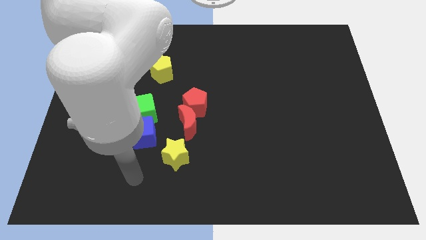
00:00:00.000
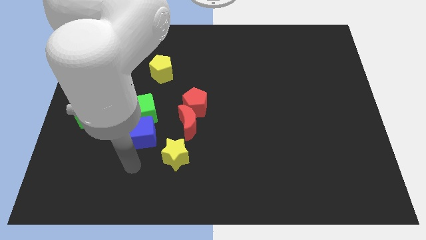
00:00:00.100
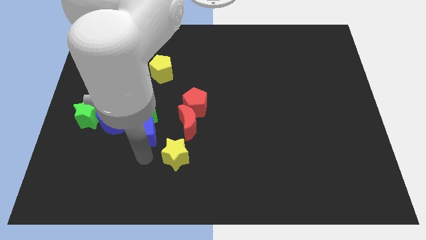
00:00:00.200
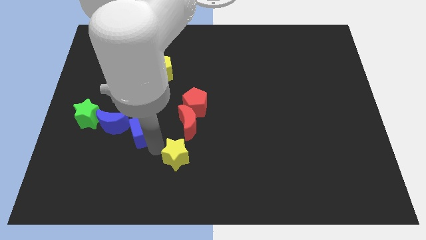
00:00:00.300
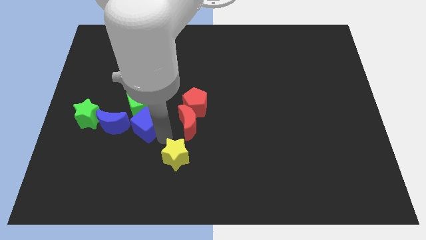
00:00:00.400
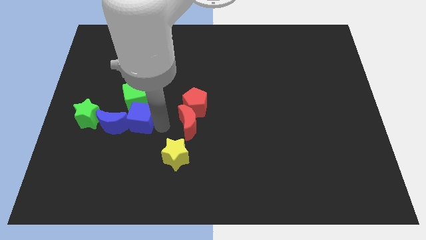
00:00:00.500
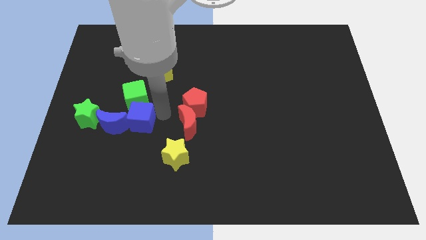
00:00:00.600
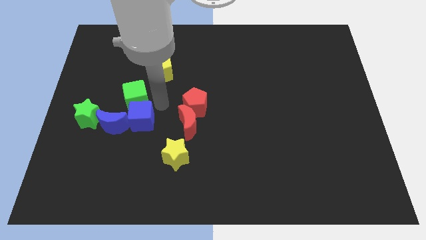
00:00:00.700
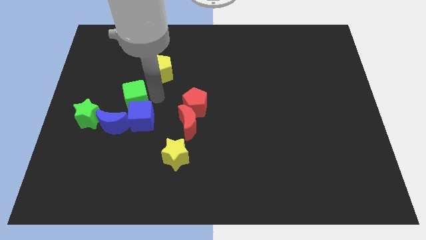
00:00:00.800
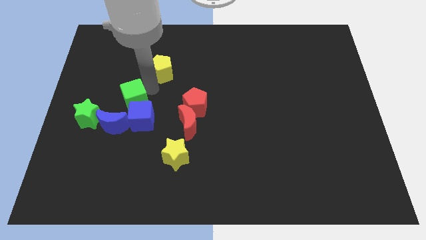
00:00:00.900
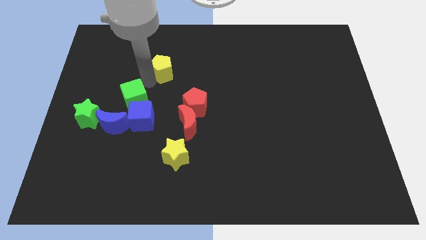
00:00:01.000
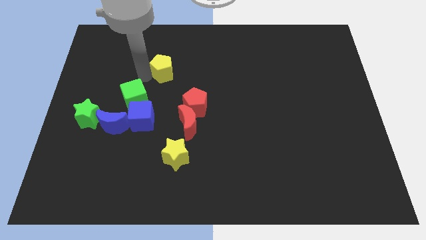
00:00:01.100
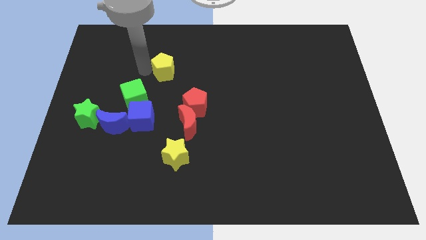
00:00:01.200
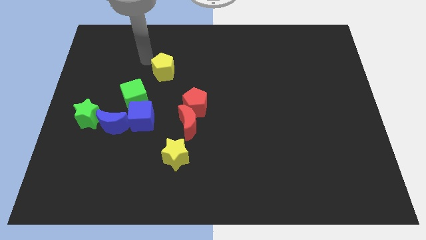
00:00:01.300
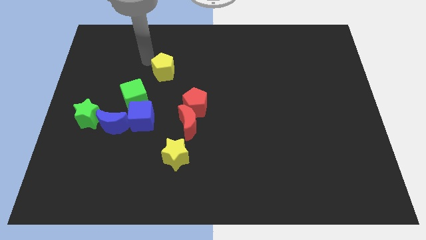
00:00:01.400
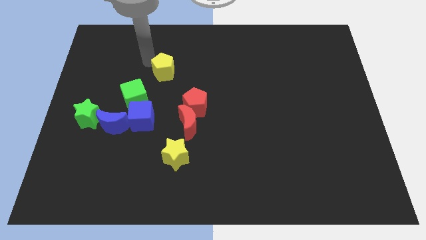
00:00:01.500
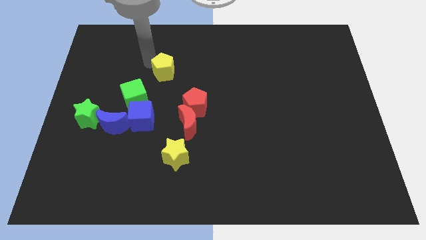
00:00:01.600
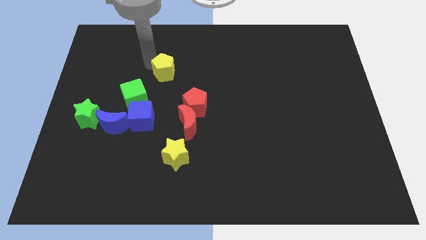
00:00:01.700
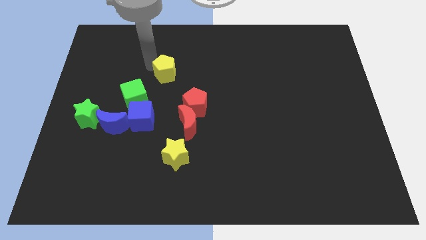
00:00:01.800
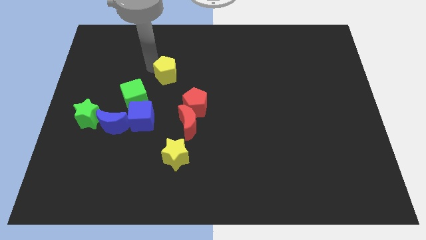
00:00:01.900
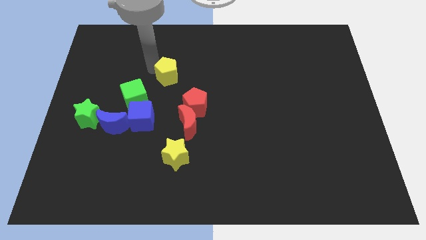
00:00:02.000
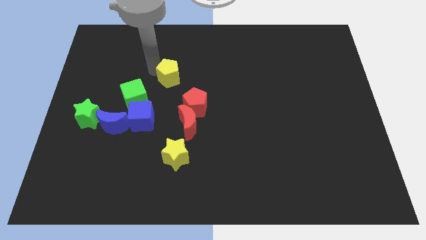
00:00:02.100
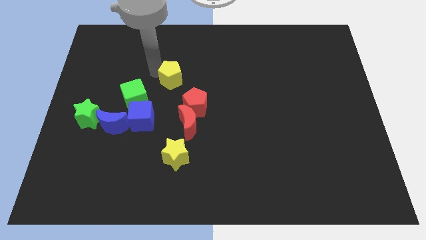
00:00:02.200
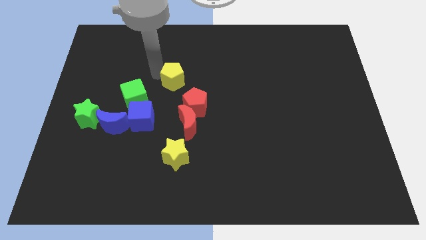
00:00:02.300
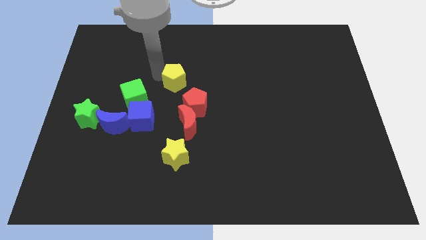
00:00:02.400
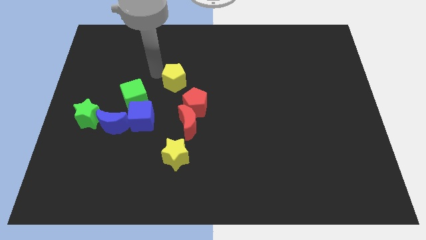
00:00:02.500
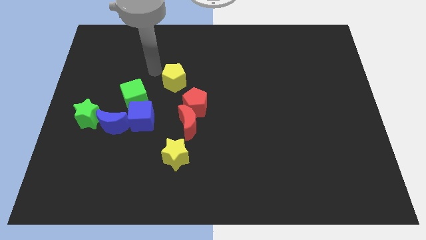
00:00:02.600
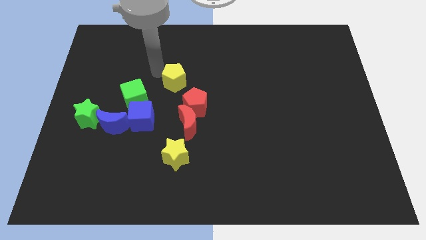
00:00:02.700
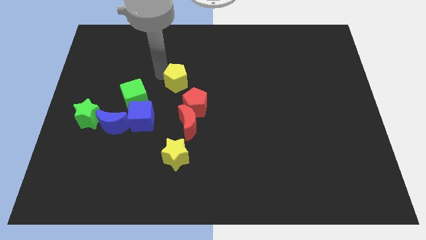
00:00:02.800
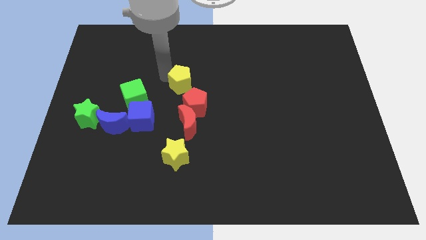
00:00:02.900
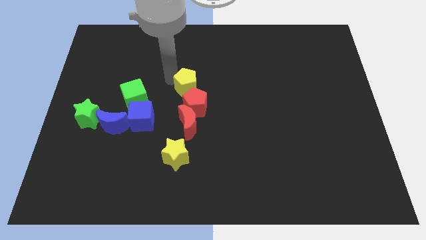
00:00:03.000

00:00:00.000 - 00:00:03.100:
slightly slide the yellow pentagon downwards and then to the right

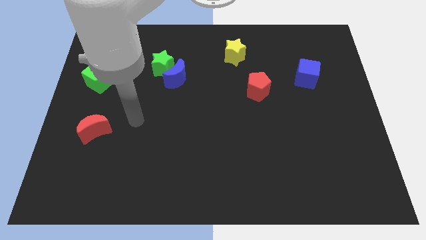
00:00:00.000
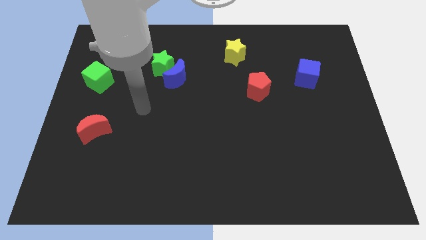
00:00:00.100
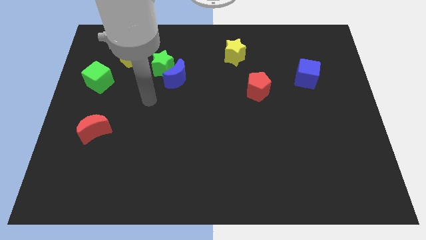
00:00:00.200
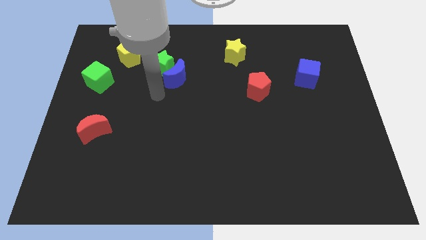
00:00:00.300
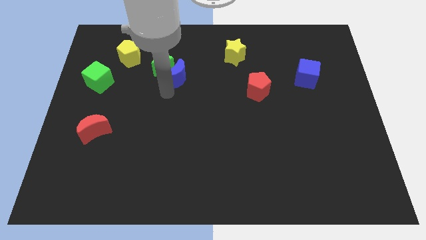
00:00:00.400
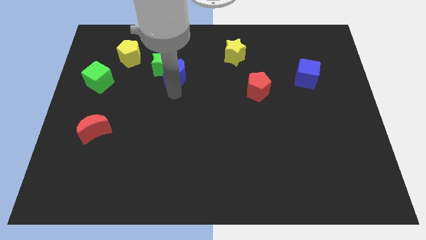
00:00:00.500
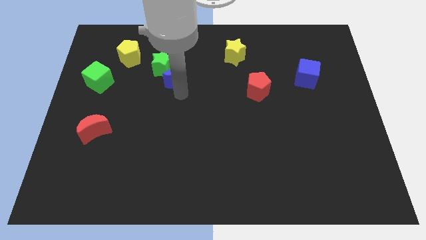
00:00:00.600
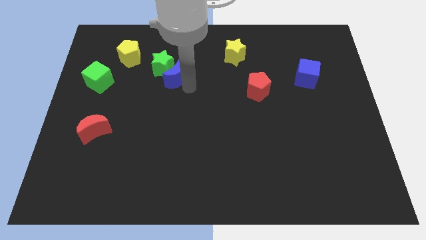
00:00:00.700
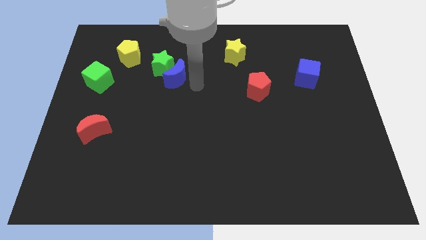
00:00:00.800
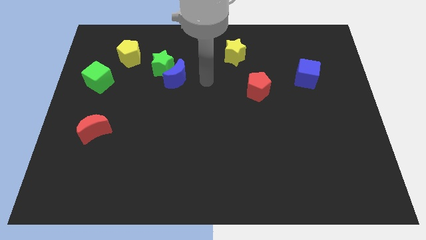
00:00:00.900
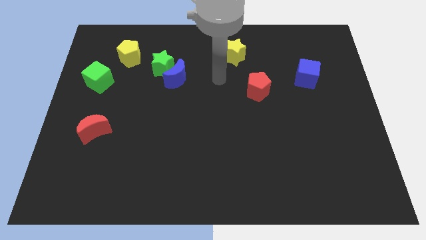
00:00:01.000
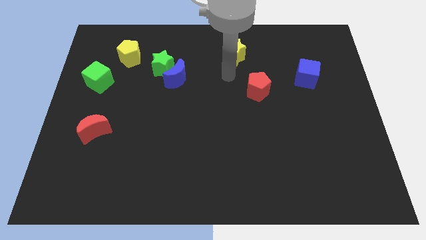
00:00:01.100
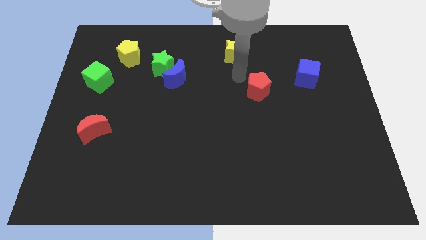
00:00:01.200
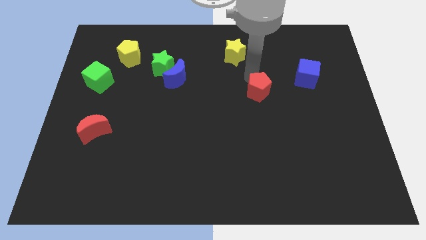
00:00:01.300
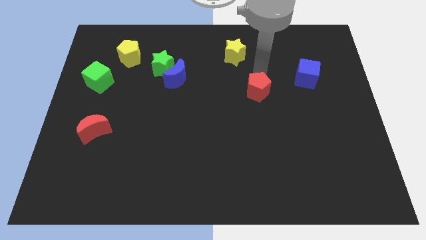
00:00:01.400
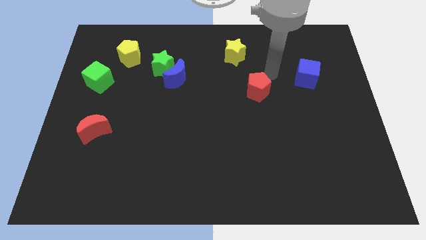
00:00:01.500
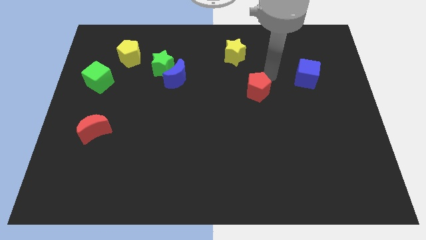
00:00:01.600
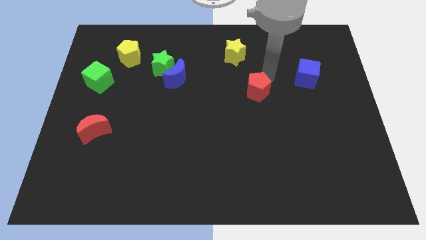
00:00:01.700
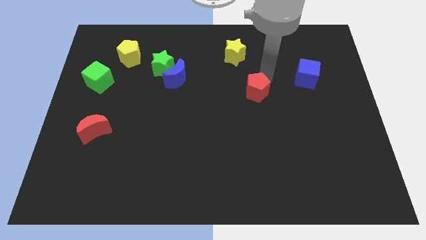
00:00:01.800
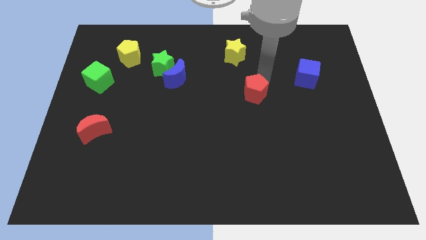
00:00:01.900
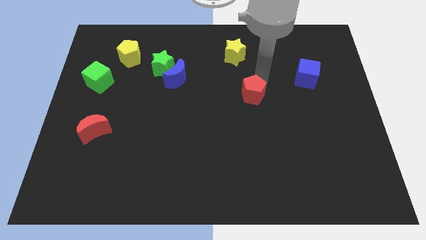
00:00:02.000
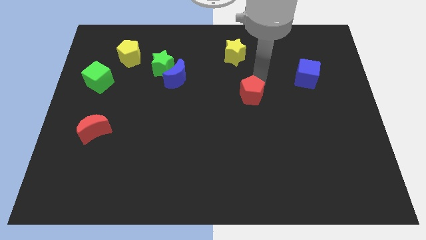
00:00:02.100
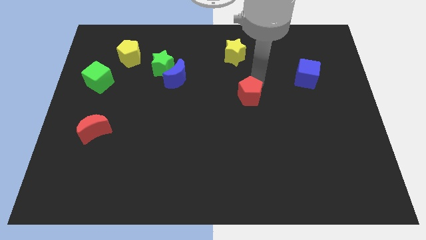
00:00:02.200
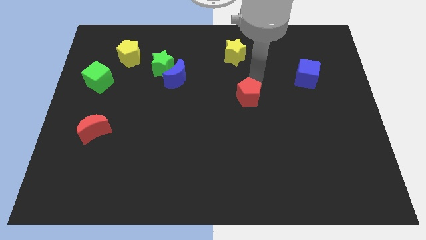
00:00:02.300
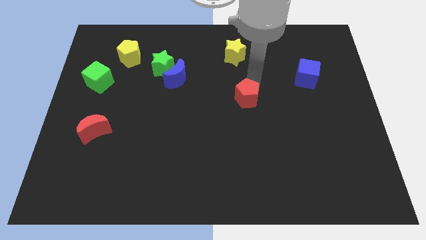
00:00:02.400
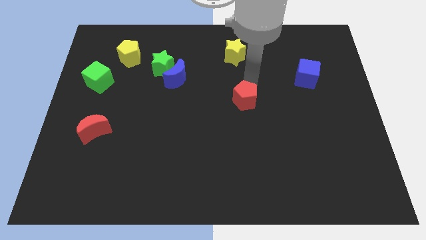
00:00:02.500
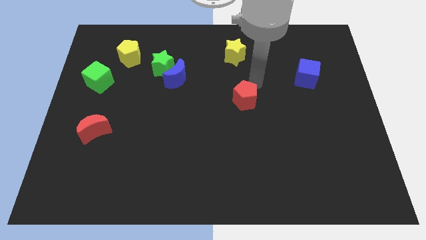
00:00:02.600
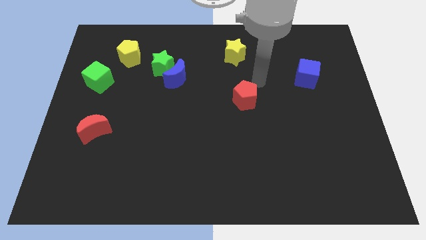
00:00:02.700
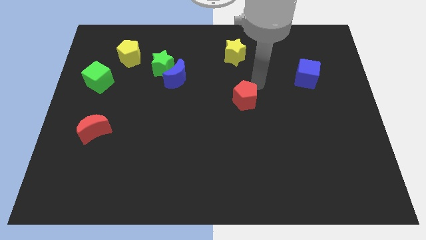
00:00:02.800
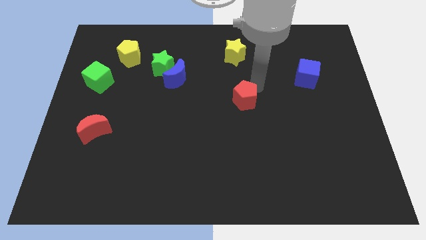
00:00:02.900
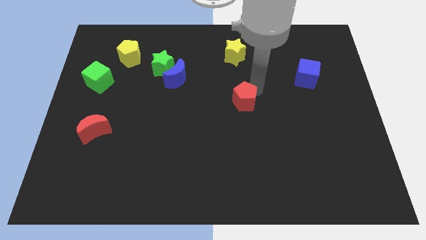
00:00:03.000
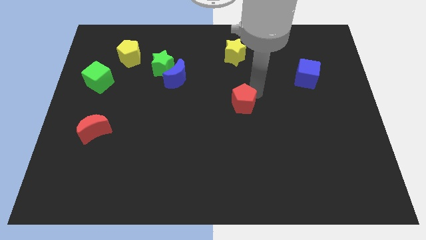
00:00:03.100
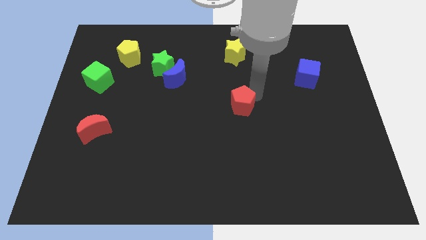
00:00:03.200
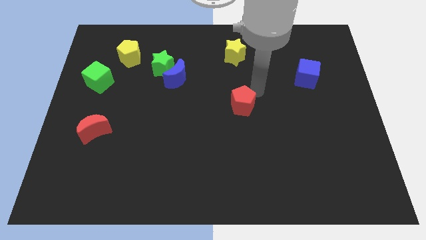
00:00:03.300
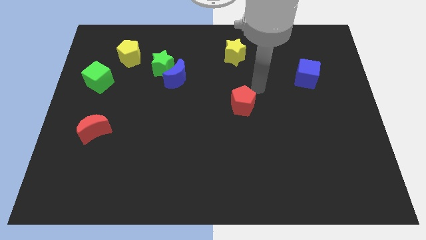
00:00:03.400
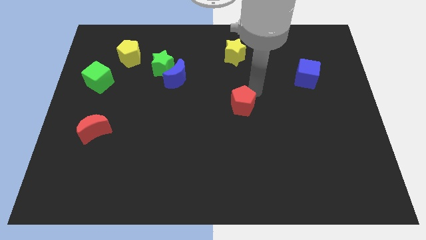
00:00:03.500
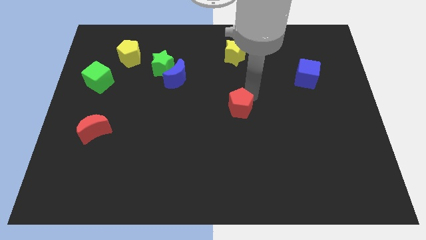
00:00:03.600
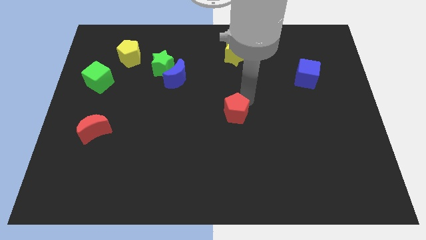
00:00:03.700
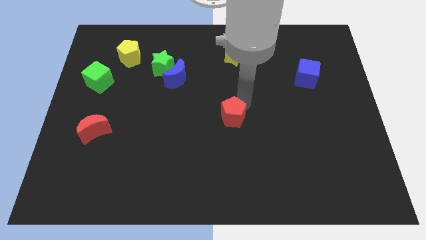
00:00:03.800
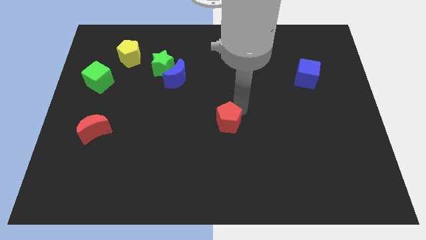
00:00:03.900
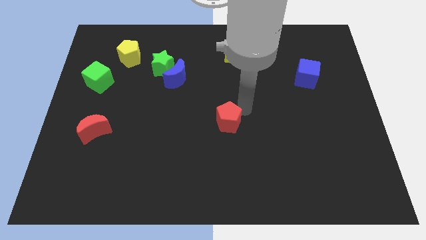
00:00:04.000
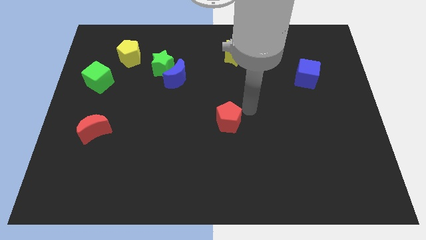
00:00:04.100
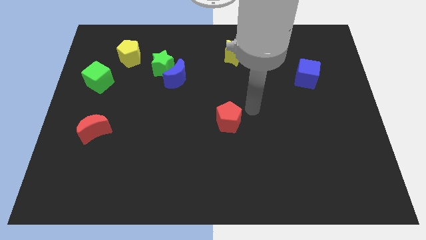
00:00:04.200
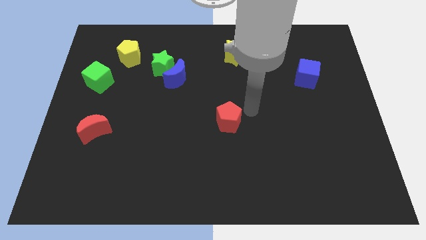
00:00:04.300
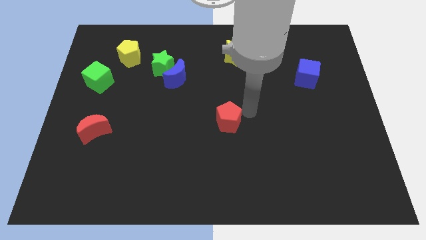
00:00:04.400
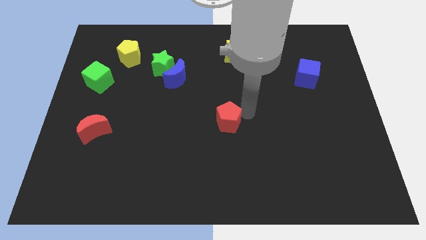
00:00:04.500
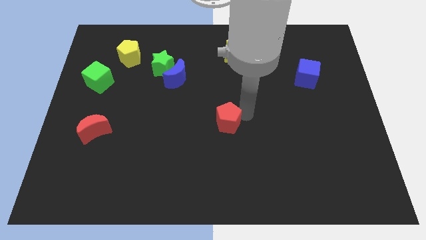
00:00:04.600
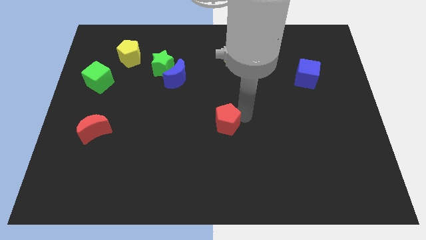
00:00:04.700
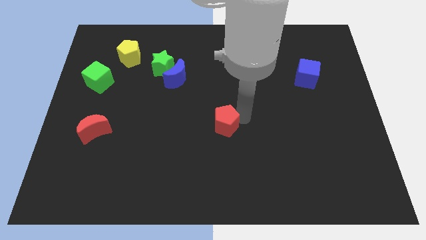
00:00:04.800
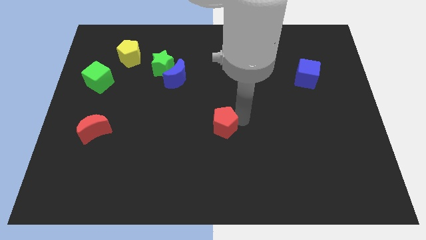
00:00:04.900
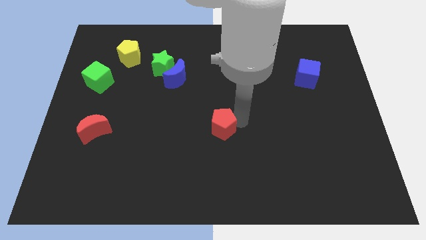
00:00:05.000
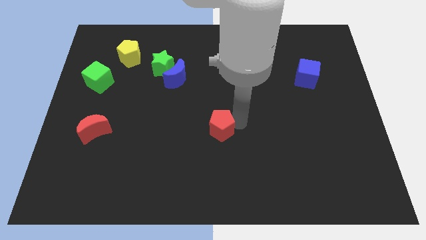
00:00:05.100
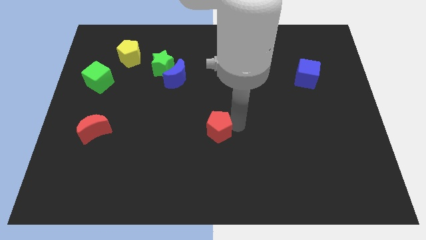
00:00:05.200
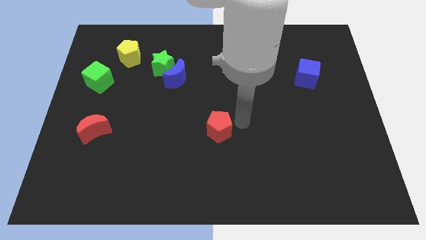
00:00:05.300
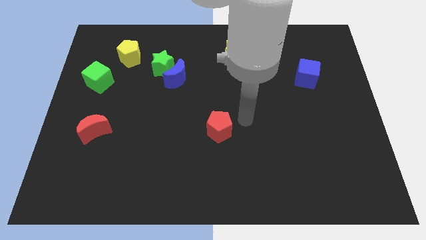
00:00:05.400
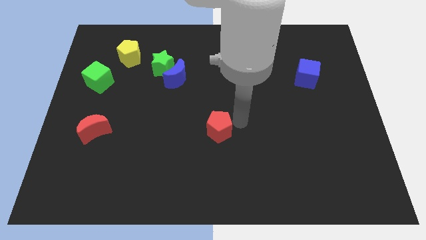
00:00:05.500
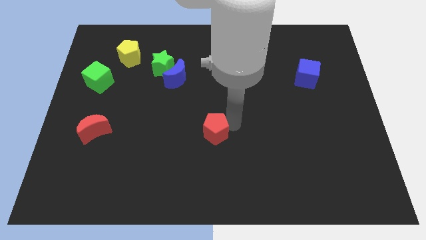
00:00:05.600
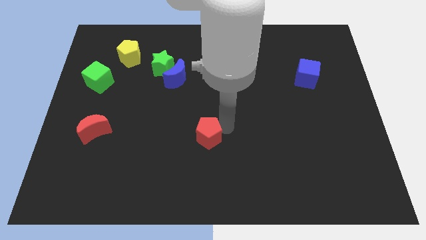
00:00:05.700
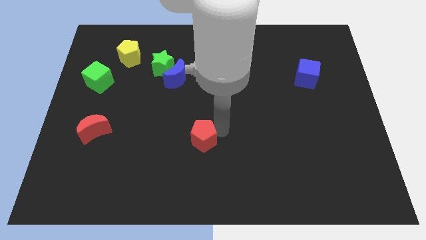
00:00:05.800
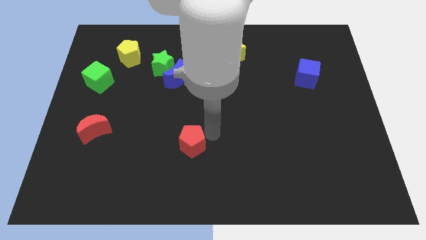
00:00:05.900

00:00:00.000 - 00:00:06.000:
push the red pentagon diagonally downwards and left
